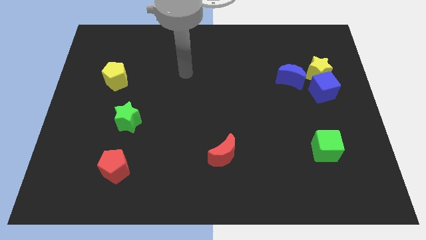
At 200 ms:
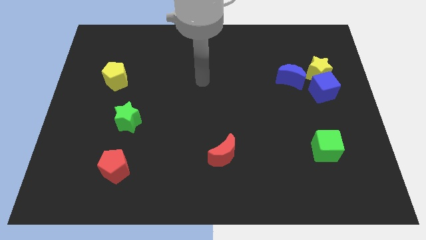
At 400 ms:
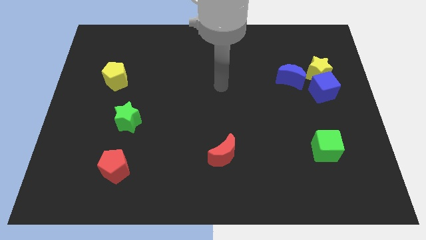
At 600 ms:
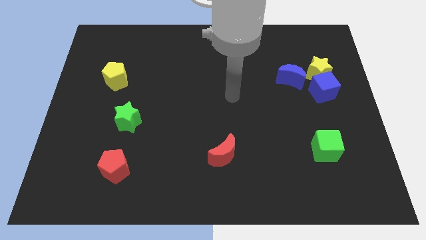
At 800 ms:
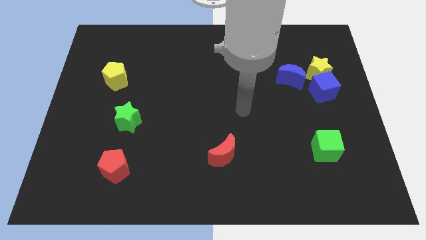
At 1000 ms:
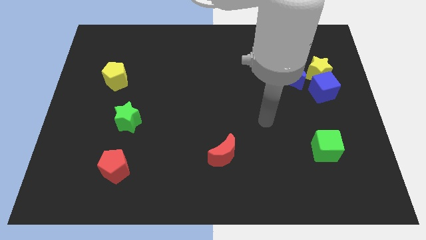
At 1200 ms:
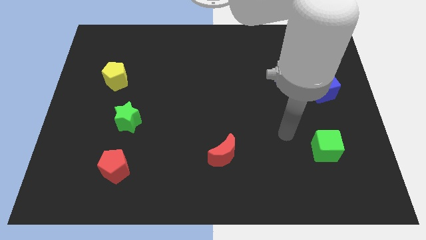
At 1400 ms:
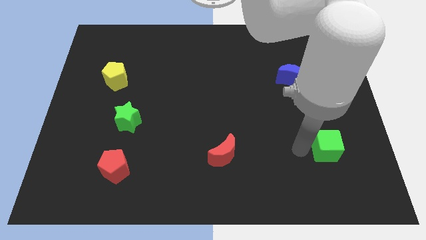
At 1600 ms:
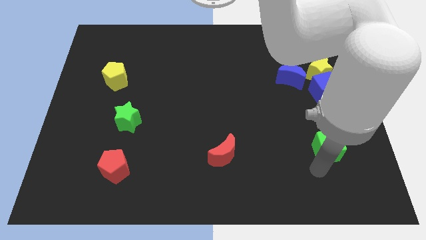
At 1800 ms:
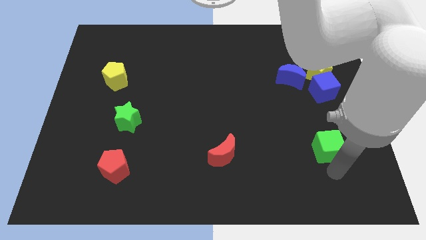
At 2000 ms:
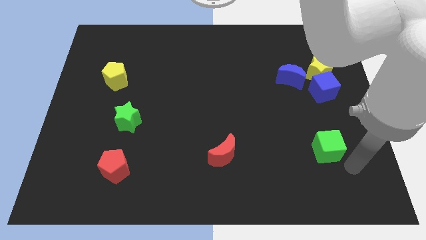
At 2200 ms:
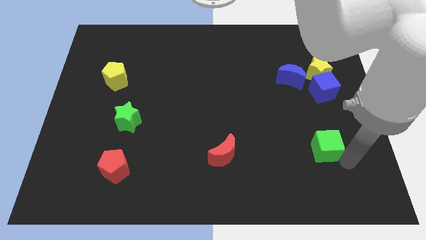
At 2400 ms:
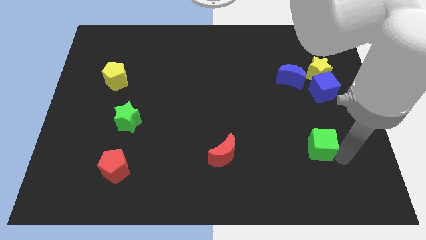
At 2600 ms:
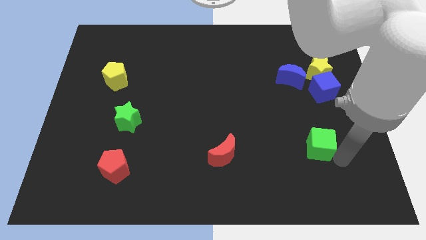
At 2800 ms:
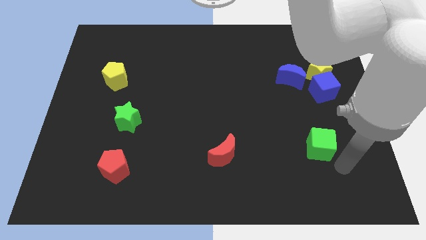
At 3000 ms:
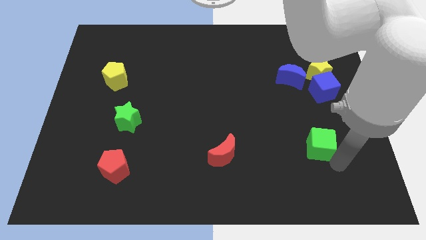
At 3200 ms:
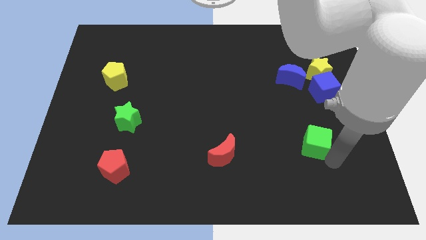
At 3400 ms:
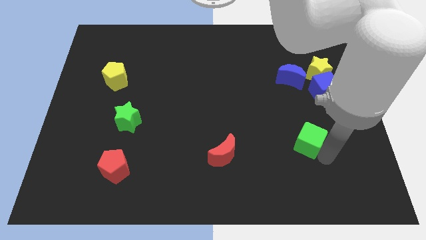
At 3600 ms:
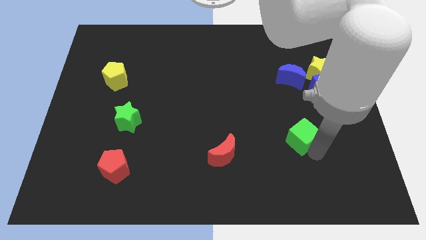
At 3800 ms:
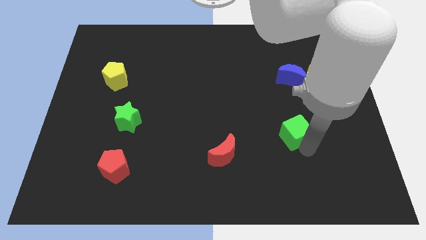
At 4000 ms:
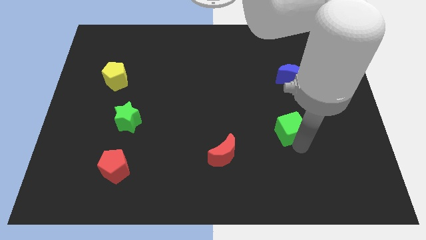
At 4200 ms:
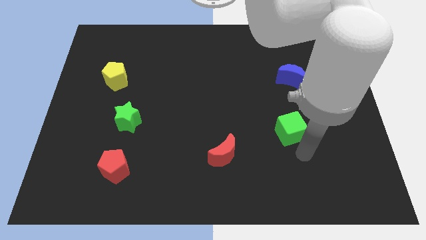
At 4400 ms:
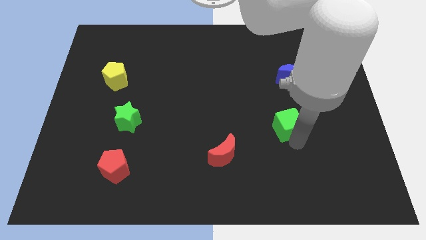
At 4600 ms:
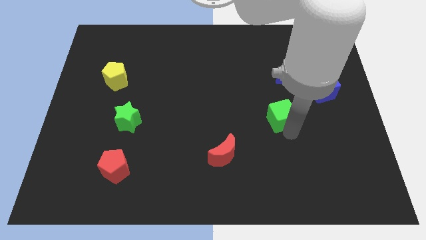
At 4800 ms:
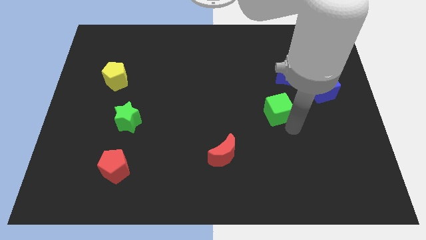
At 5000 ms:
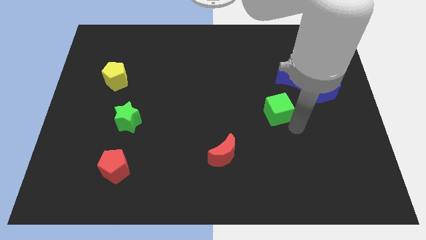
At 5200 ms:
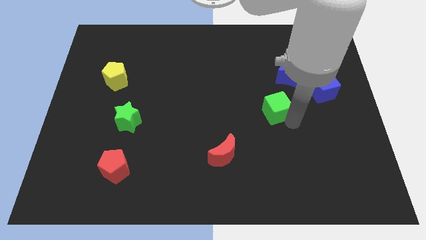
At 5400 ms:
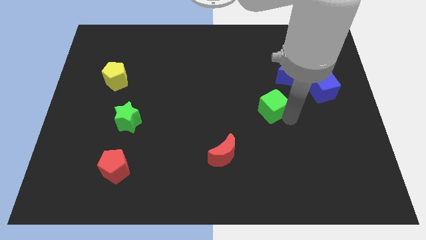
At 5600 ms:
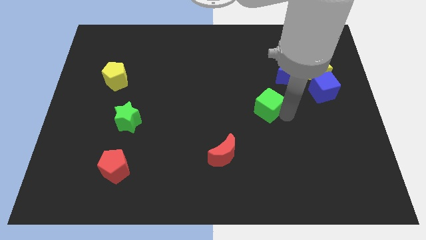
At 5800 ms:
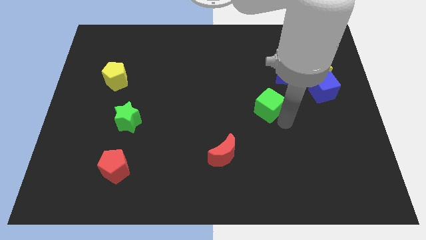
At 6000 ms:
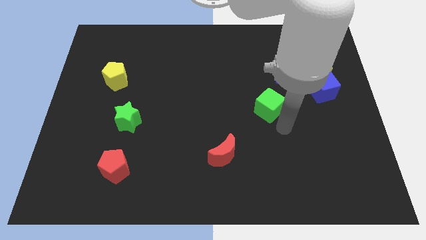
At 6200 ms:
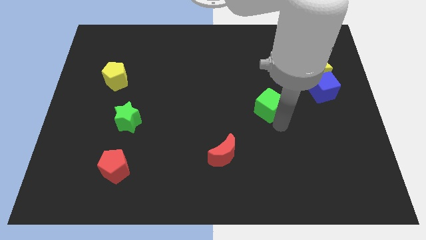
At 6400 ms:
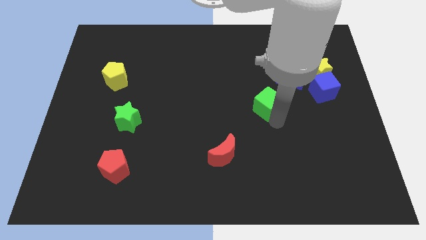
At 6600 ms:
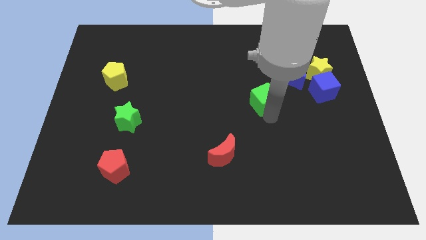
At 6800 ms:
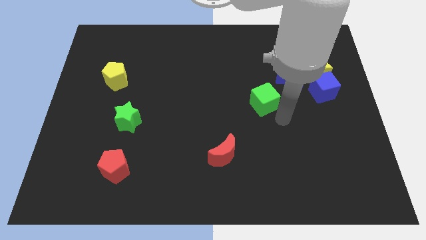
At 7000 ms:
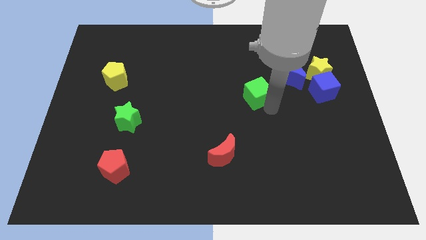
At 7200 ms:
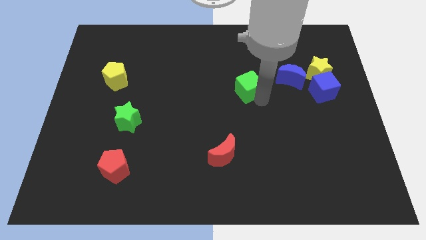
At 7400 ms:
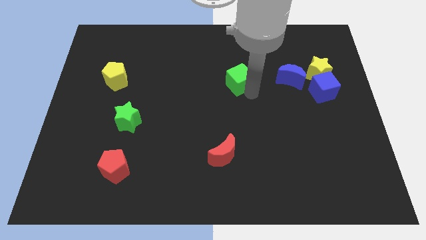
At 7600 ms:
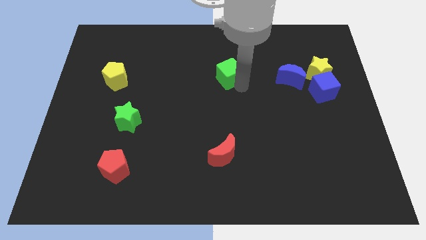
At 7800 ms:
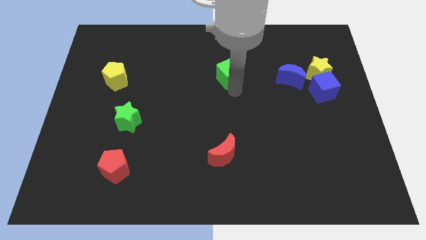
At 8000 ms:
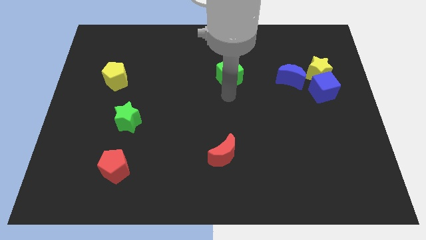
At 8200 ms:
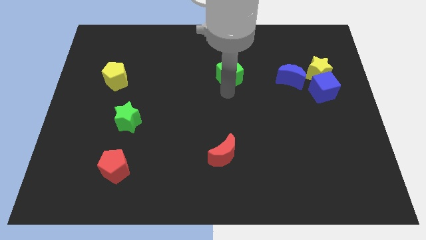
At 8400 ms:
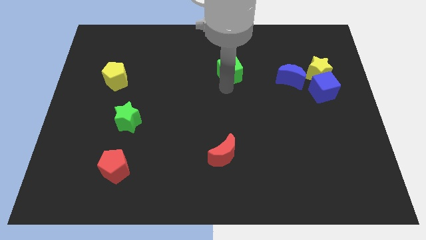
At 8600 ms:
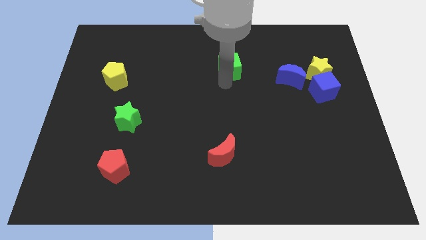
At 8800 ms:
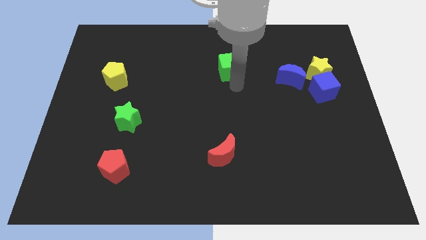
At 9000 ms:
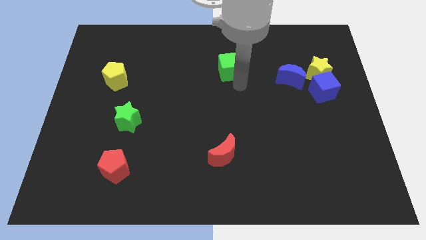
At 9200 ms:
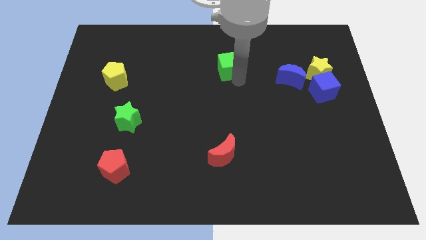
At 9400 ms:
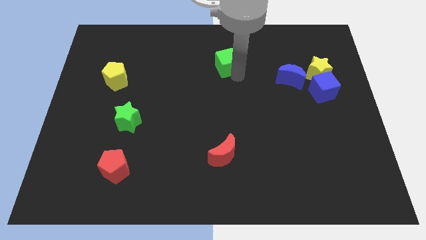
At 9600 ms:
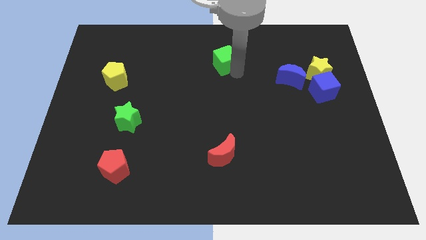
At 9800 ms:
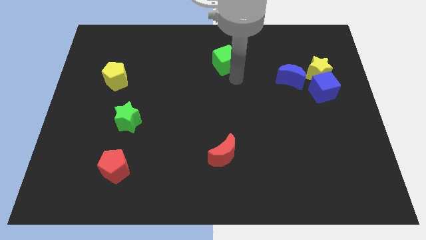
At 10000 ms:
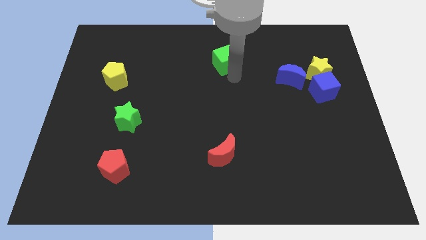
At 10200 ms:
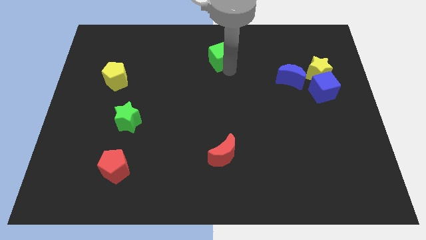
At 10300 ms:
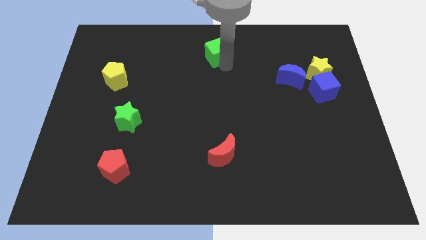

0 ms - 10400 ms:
push the green cube to the top side
